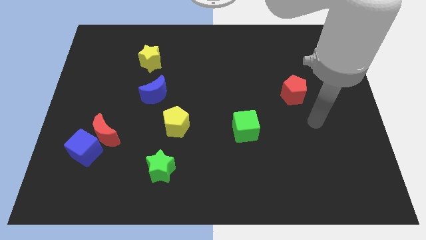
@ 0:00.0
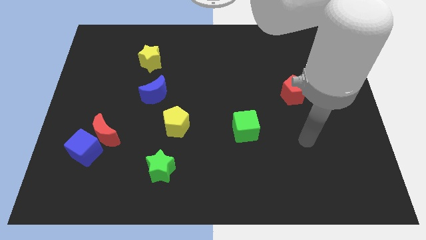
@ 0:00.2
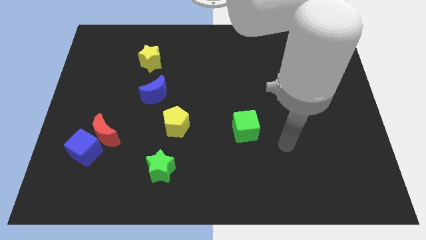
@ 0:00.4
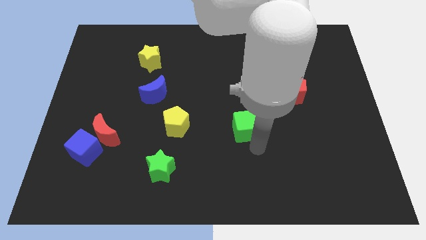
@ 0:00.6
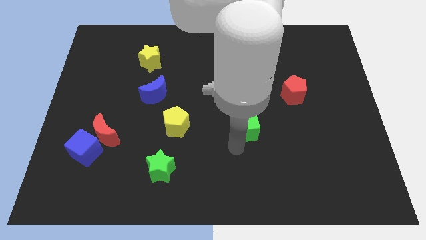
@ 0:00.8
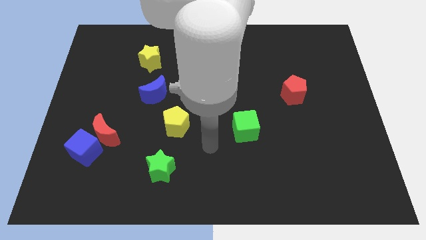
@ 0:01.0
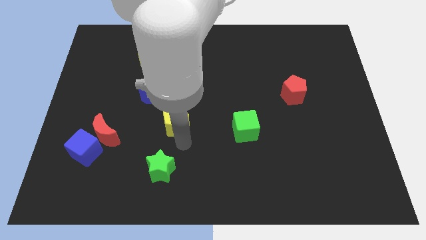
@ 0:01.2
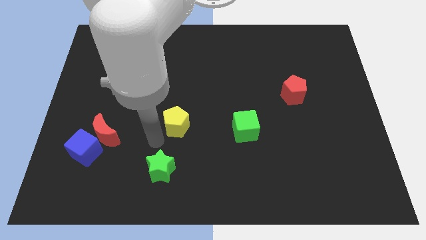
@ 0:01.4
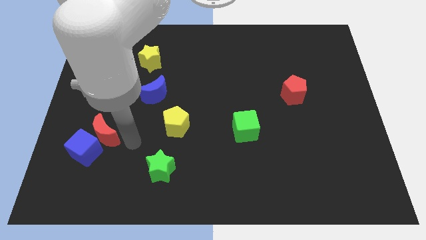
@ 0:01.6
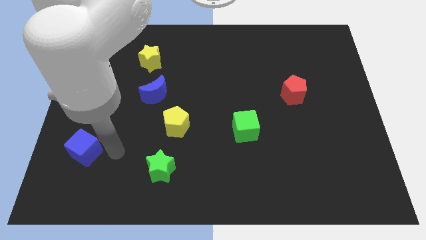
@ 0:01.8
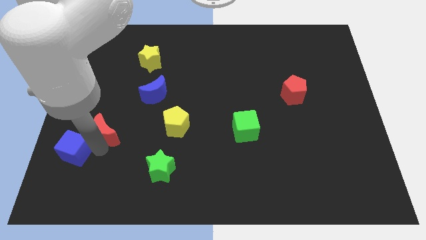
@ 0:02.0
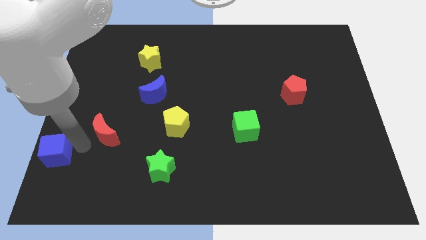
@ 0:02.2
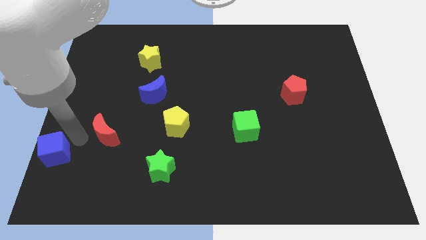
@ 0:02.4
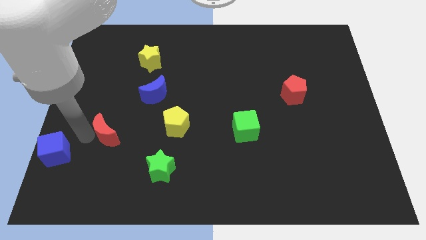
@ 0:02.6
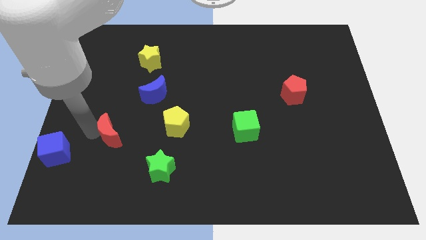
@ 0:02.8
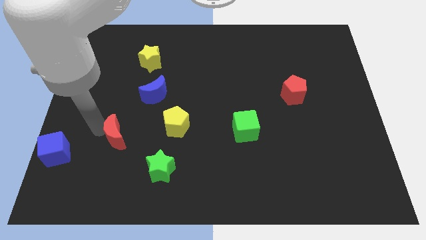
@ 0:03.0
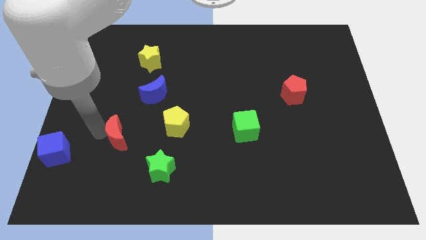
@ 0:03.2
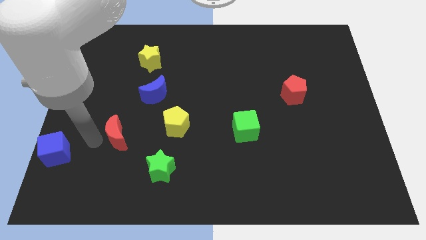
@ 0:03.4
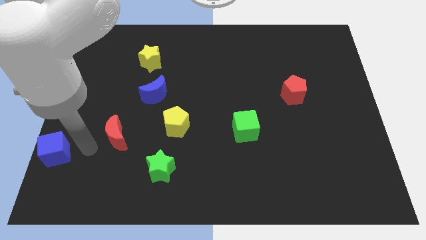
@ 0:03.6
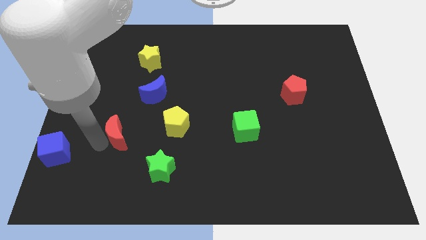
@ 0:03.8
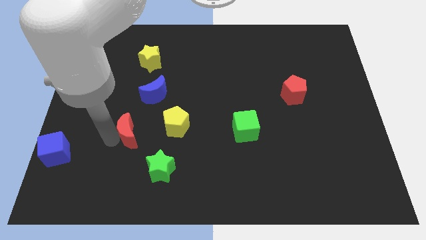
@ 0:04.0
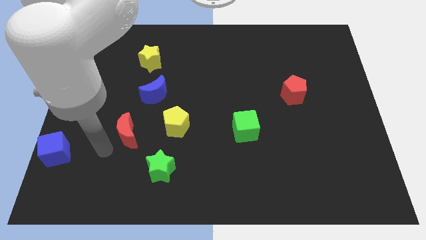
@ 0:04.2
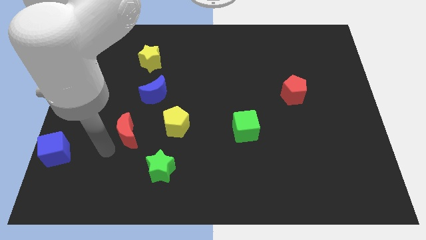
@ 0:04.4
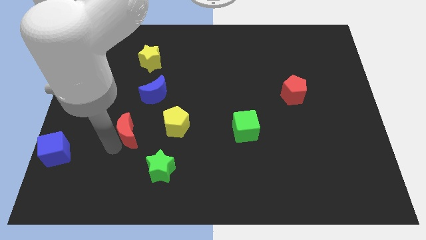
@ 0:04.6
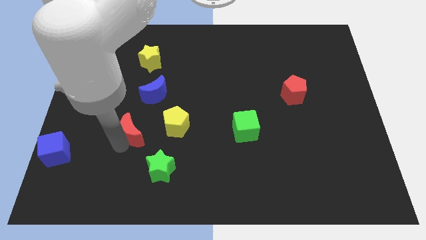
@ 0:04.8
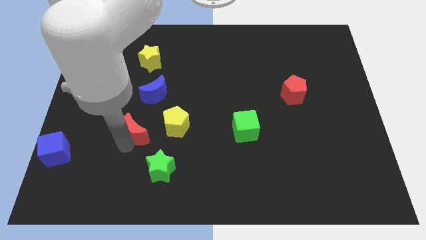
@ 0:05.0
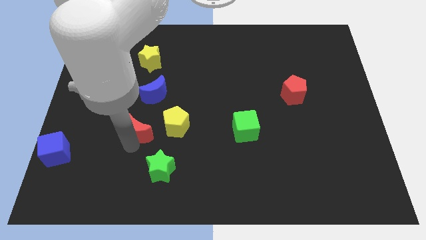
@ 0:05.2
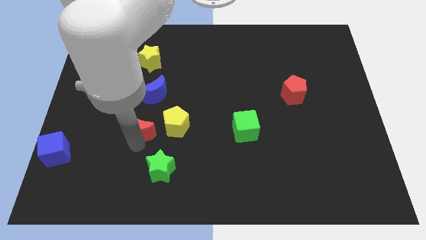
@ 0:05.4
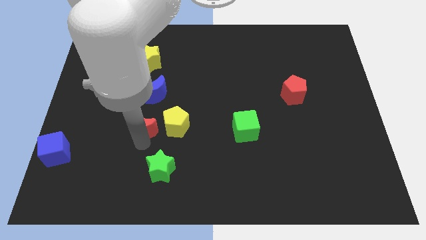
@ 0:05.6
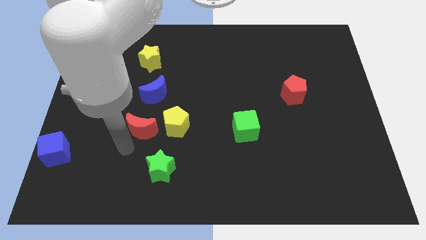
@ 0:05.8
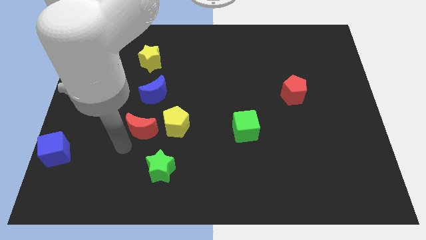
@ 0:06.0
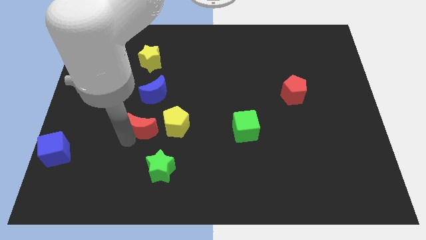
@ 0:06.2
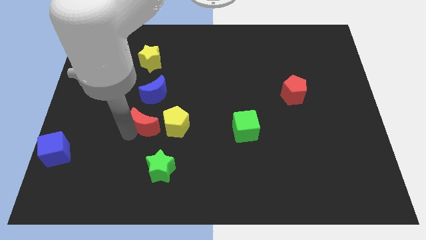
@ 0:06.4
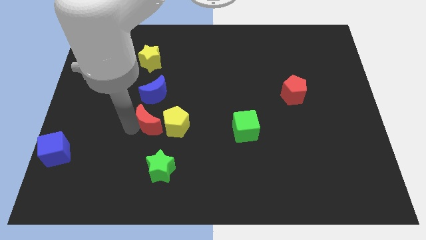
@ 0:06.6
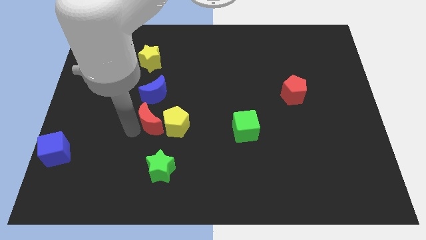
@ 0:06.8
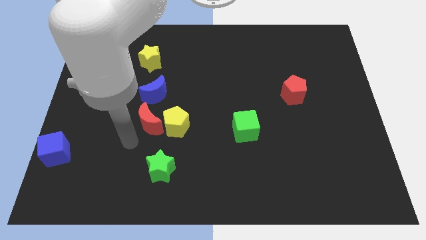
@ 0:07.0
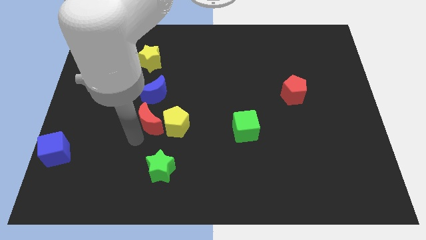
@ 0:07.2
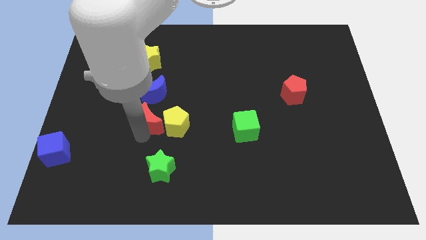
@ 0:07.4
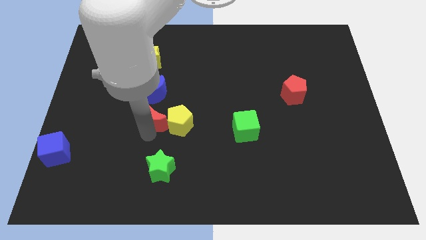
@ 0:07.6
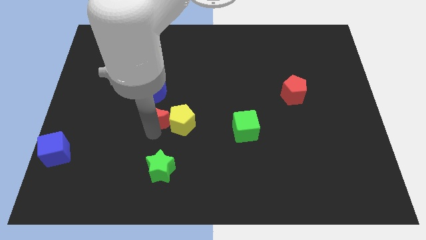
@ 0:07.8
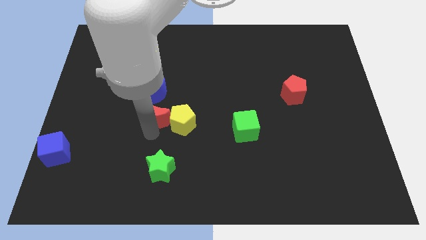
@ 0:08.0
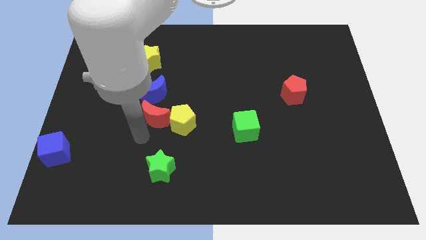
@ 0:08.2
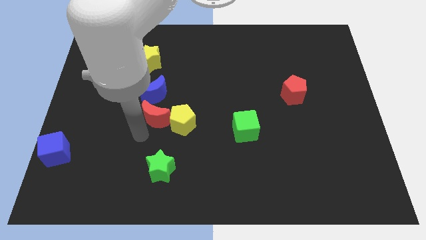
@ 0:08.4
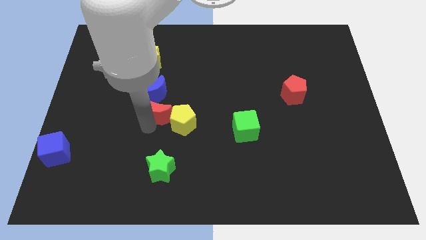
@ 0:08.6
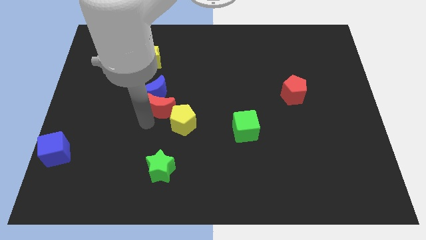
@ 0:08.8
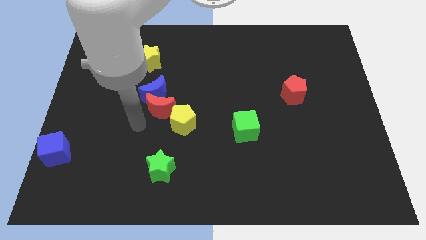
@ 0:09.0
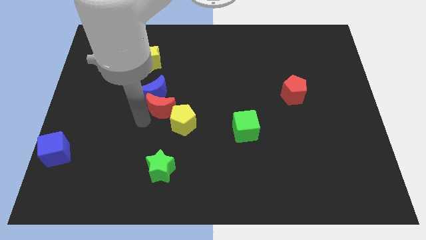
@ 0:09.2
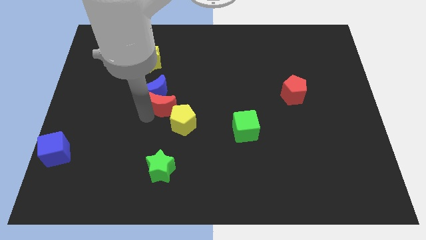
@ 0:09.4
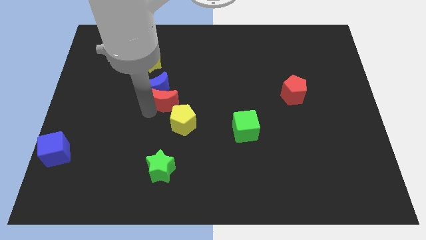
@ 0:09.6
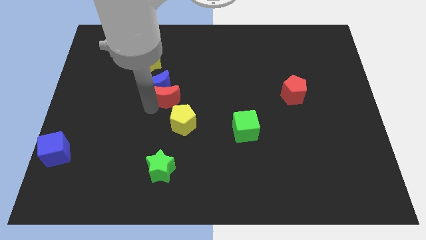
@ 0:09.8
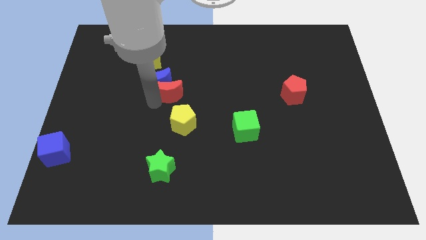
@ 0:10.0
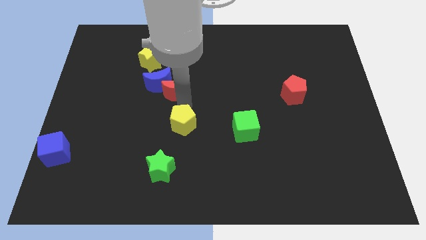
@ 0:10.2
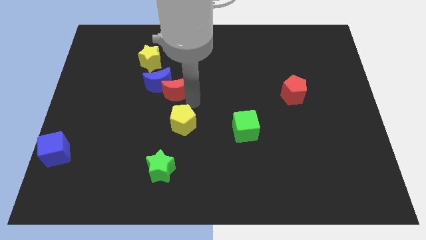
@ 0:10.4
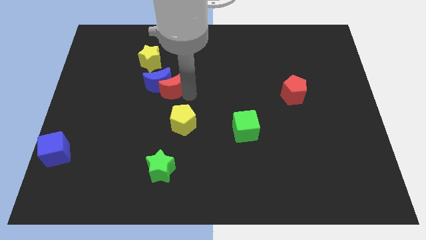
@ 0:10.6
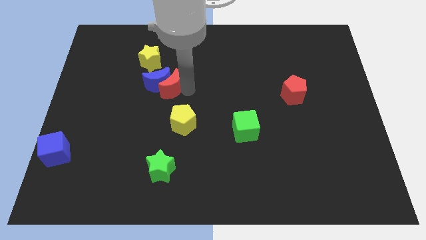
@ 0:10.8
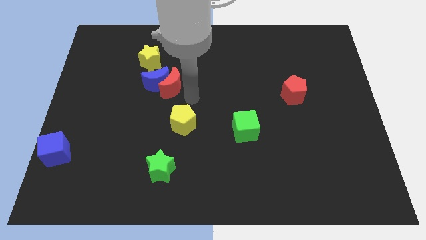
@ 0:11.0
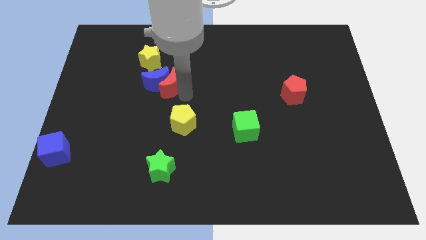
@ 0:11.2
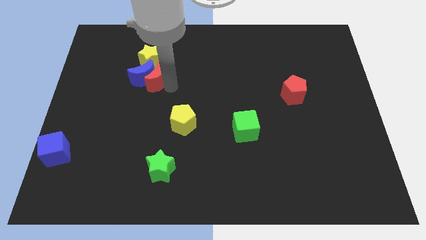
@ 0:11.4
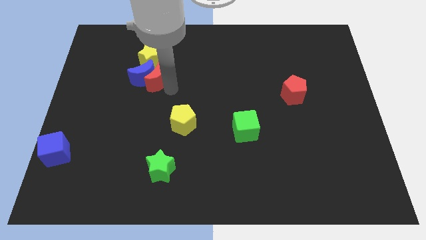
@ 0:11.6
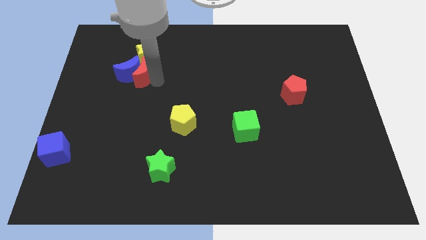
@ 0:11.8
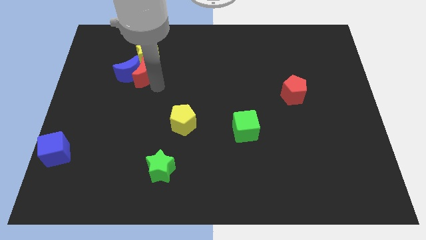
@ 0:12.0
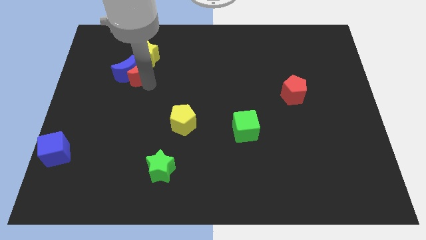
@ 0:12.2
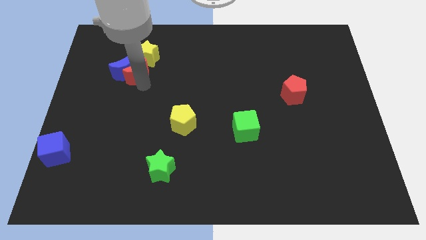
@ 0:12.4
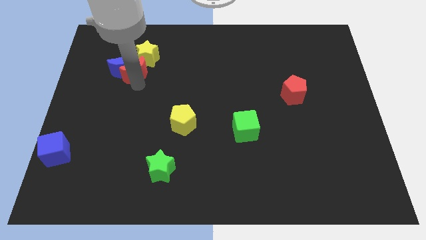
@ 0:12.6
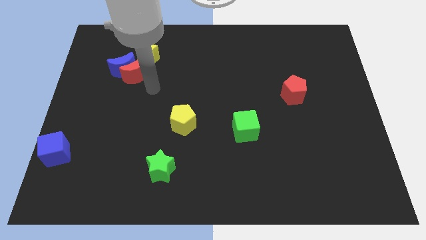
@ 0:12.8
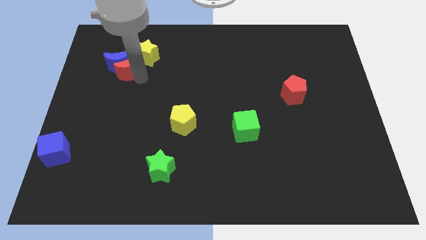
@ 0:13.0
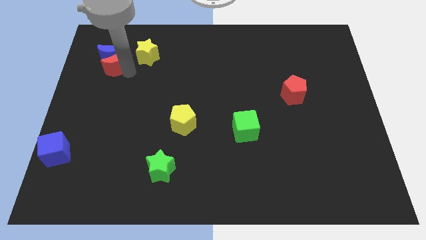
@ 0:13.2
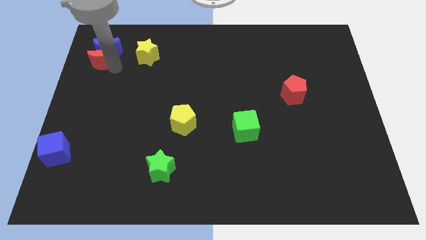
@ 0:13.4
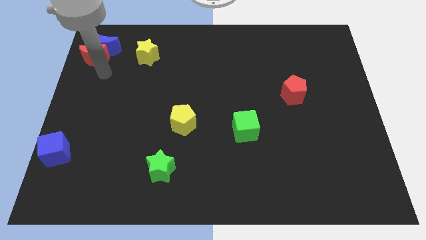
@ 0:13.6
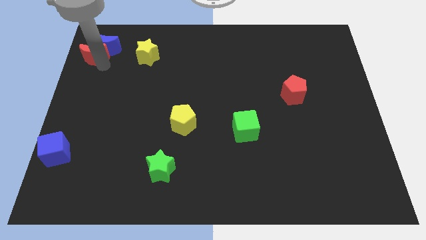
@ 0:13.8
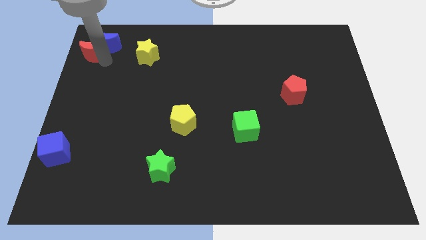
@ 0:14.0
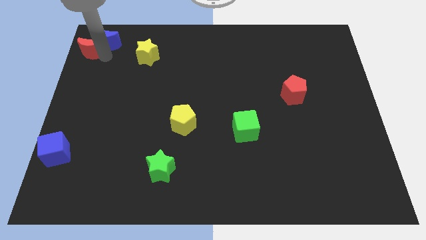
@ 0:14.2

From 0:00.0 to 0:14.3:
slide the red moon to the top left of the board
